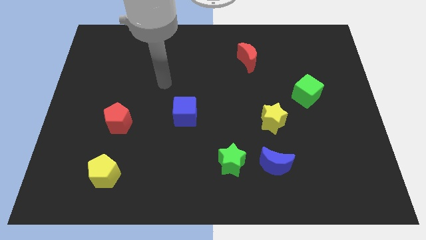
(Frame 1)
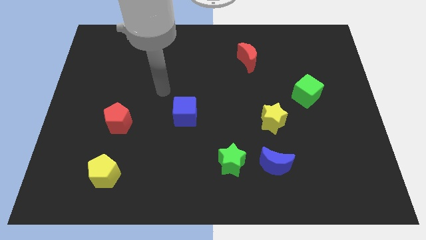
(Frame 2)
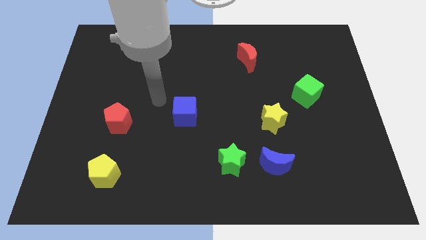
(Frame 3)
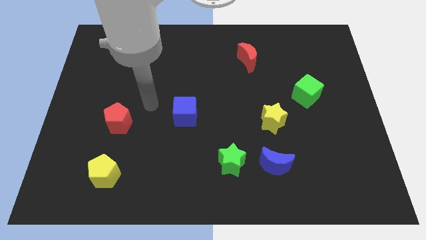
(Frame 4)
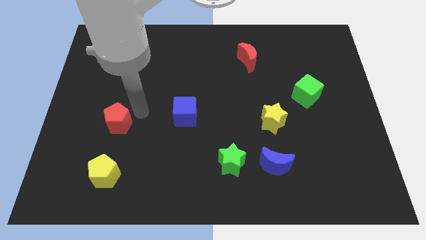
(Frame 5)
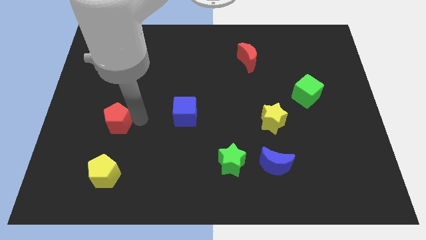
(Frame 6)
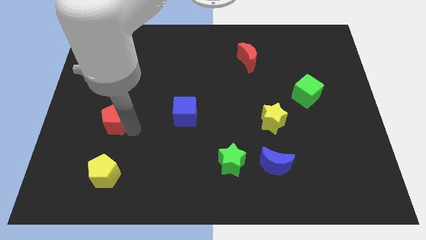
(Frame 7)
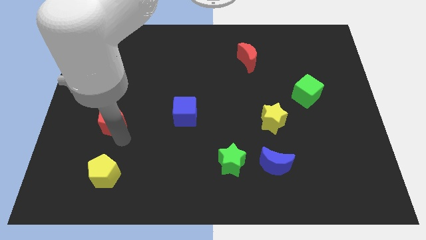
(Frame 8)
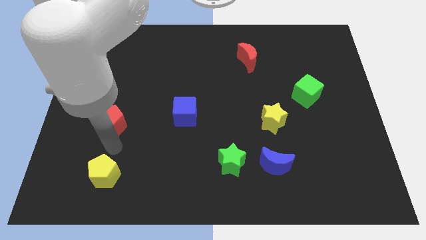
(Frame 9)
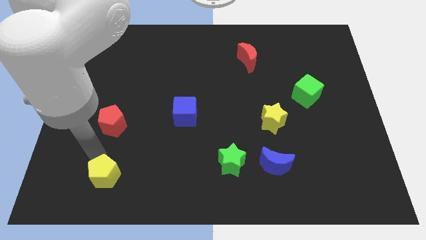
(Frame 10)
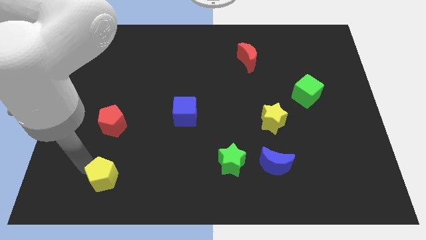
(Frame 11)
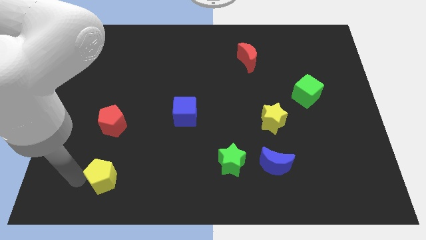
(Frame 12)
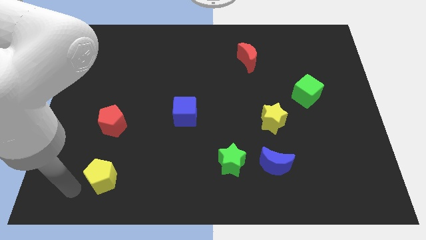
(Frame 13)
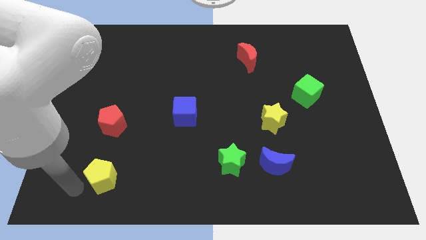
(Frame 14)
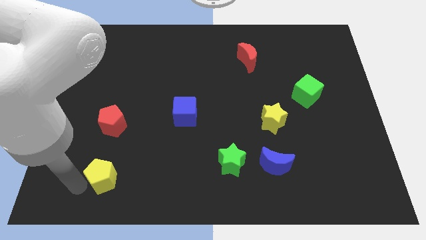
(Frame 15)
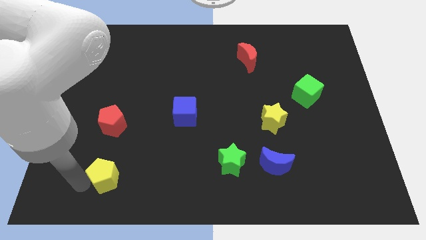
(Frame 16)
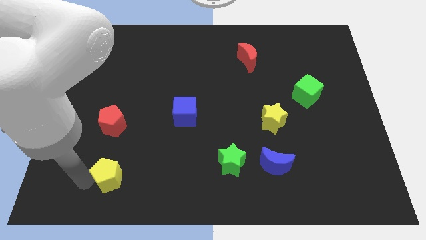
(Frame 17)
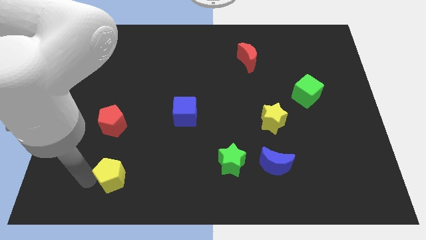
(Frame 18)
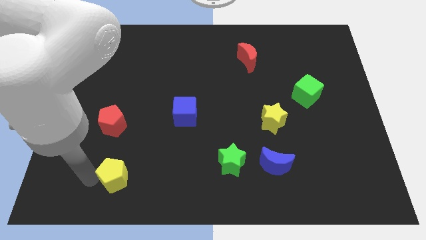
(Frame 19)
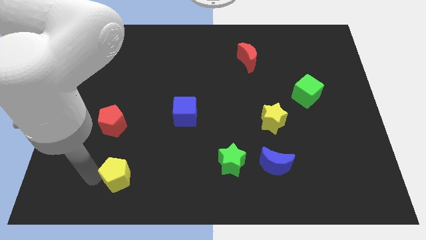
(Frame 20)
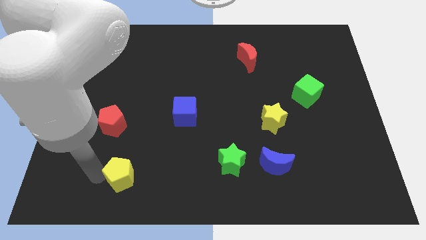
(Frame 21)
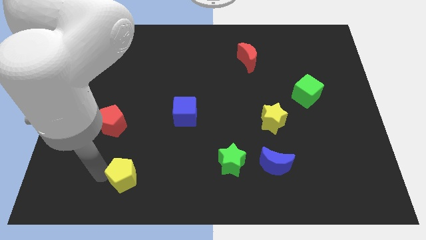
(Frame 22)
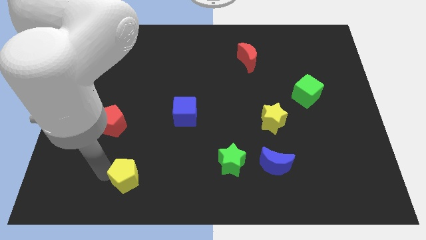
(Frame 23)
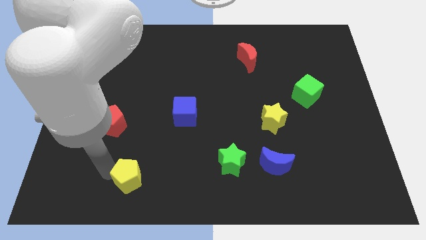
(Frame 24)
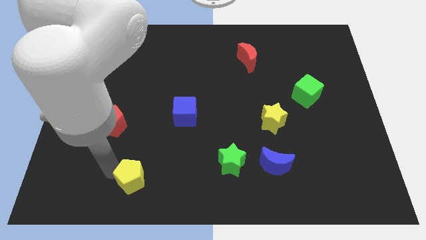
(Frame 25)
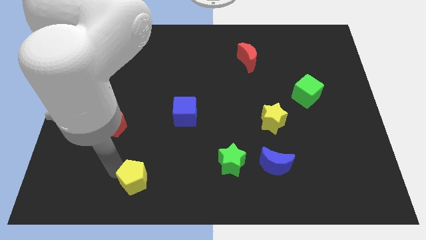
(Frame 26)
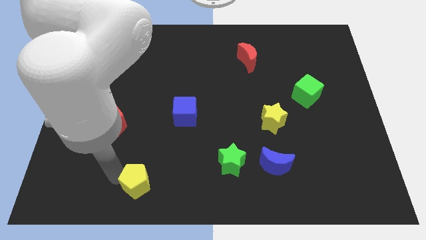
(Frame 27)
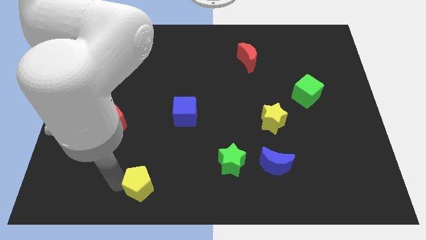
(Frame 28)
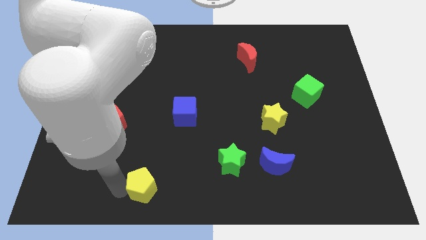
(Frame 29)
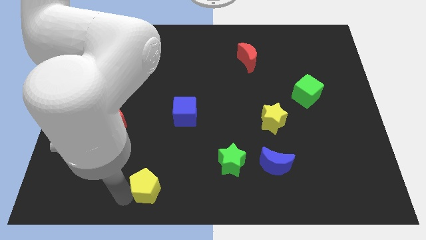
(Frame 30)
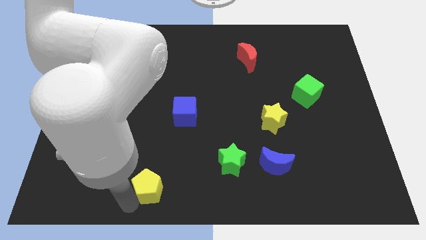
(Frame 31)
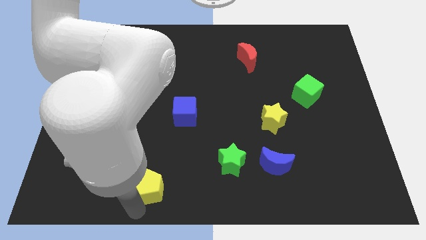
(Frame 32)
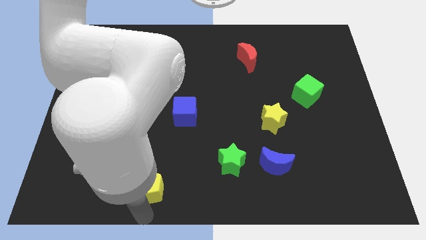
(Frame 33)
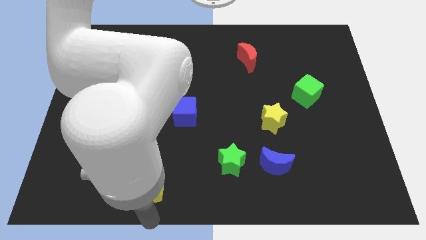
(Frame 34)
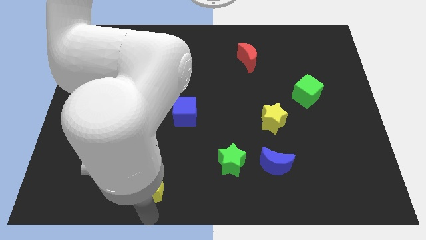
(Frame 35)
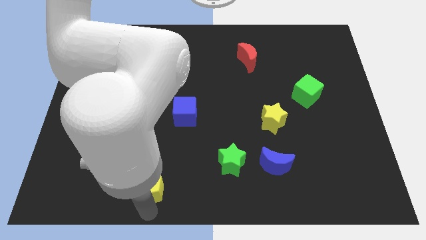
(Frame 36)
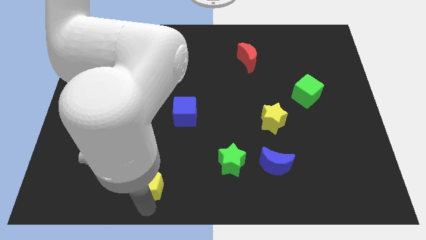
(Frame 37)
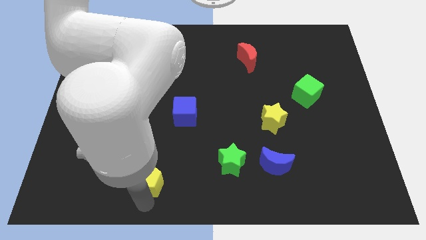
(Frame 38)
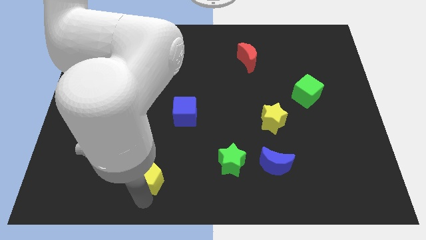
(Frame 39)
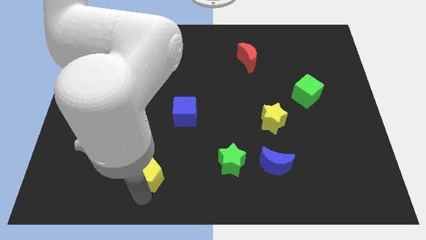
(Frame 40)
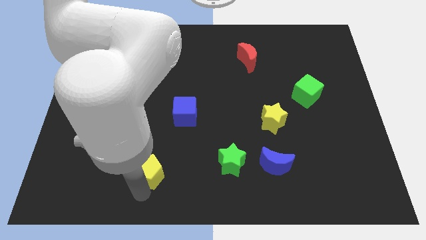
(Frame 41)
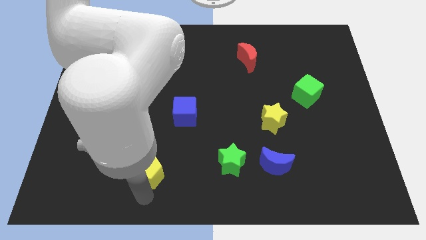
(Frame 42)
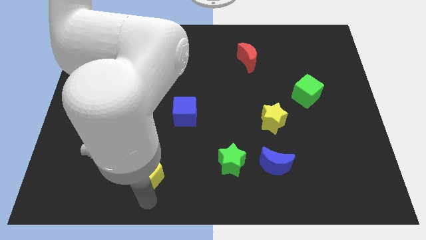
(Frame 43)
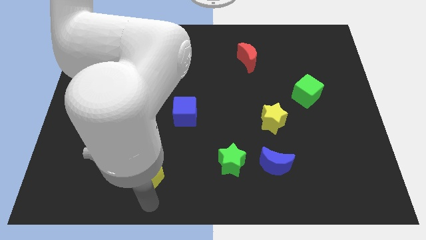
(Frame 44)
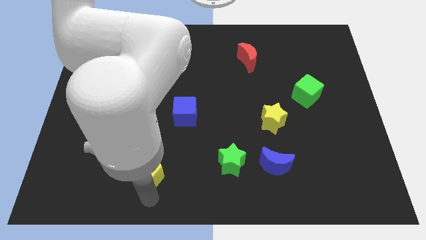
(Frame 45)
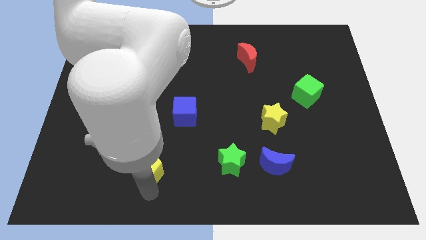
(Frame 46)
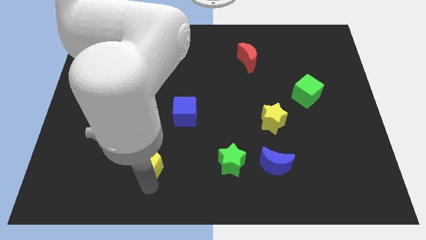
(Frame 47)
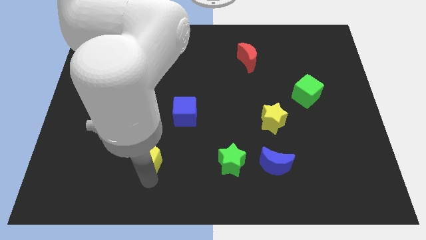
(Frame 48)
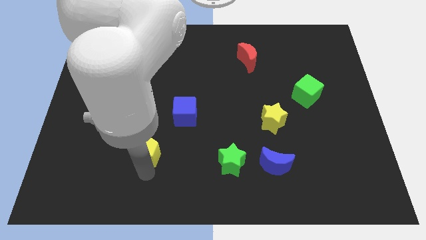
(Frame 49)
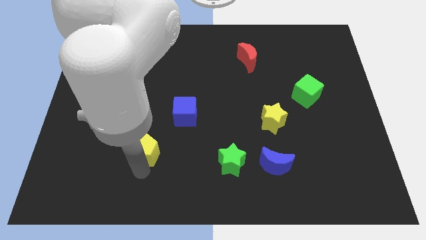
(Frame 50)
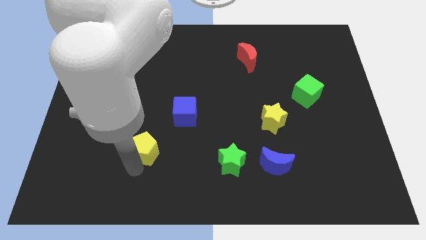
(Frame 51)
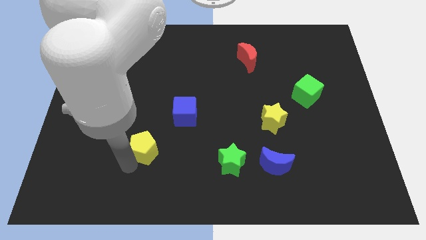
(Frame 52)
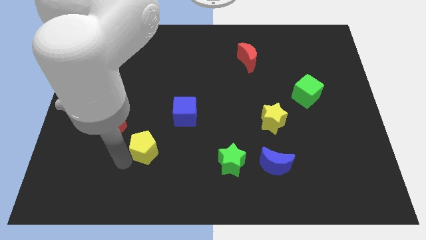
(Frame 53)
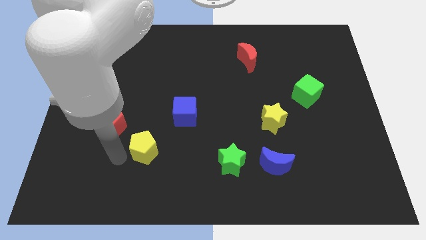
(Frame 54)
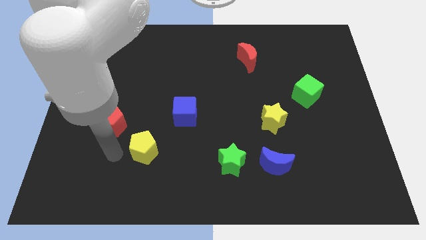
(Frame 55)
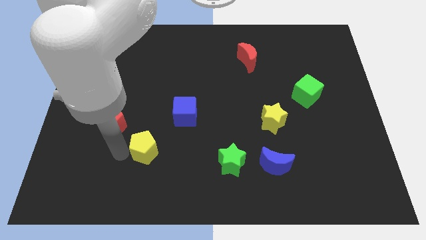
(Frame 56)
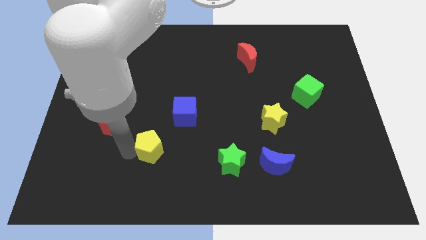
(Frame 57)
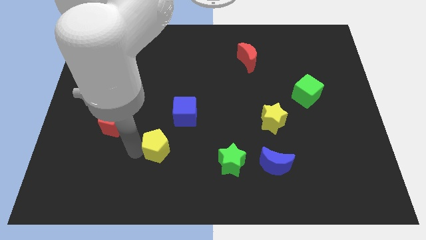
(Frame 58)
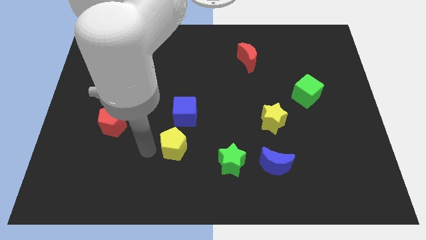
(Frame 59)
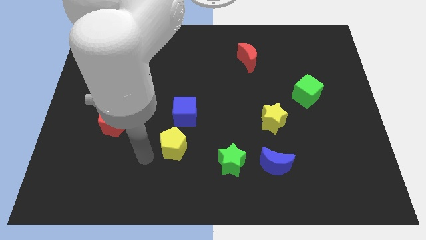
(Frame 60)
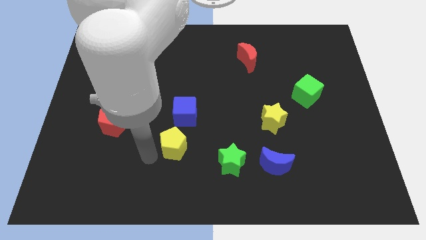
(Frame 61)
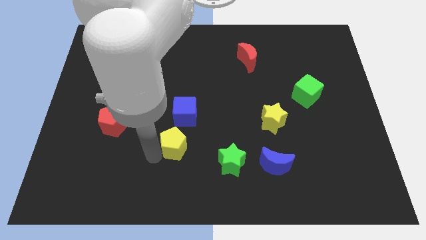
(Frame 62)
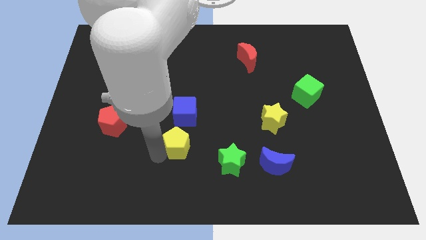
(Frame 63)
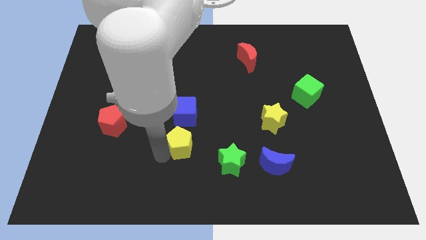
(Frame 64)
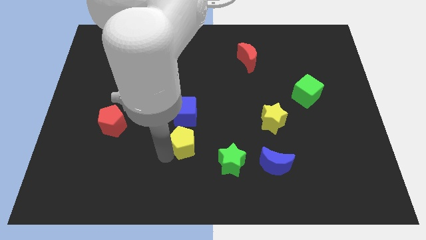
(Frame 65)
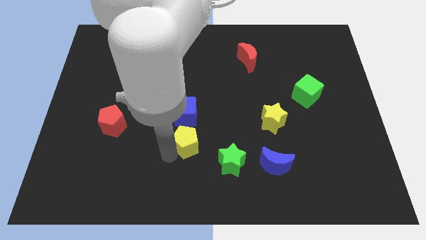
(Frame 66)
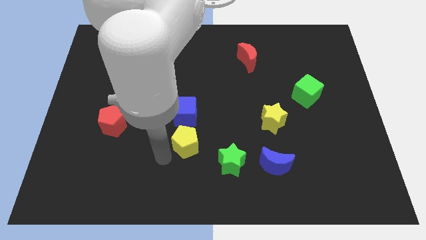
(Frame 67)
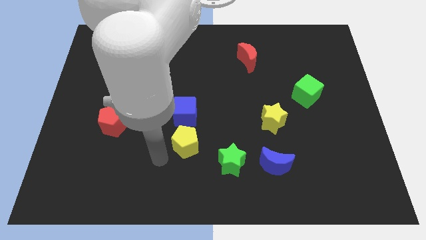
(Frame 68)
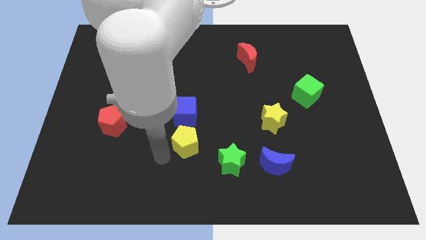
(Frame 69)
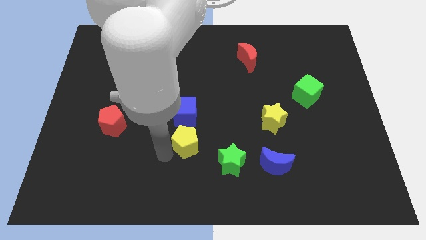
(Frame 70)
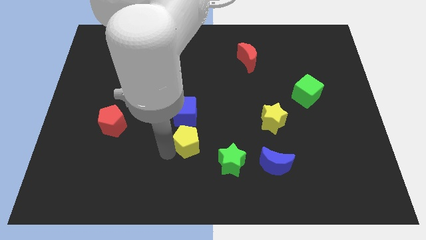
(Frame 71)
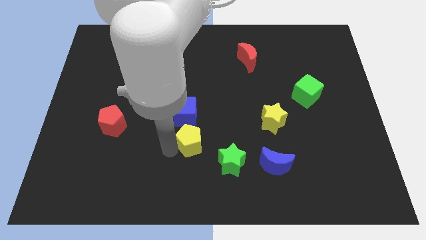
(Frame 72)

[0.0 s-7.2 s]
move the yellow pentagon to the bottom right side of the blue cube

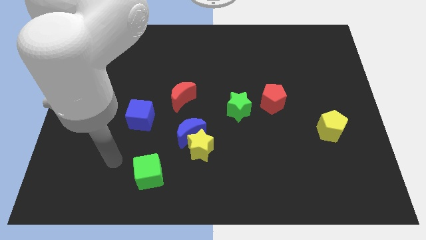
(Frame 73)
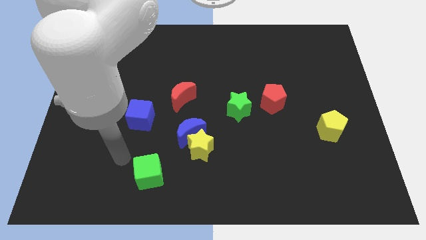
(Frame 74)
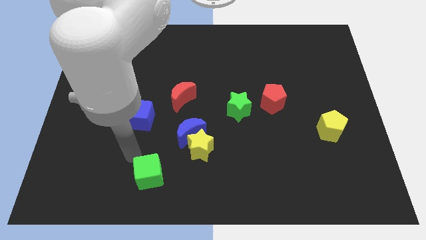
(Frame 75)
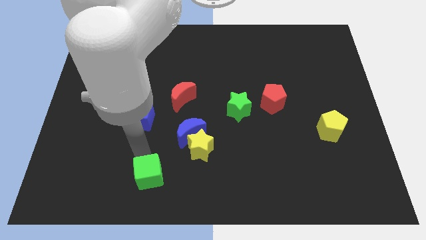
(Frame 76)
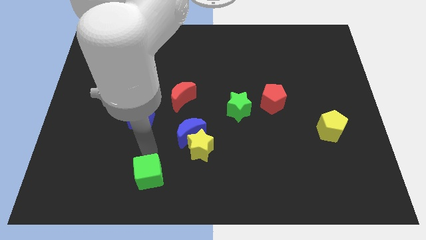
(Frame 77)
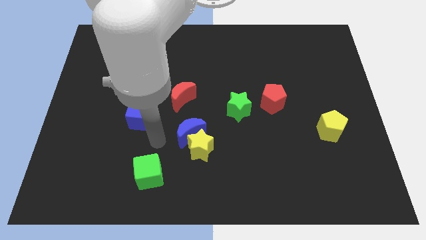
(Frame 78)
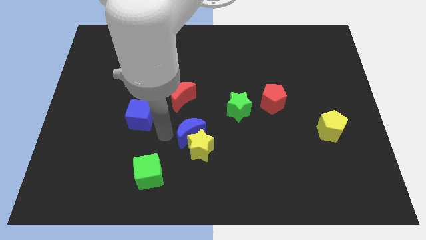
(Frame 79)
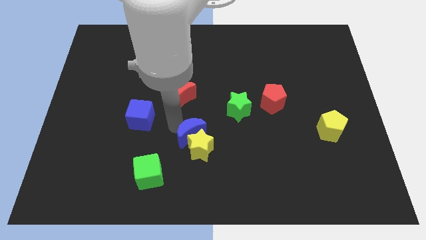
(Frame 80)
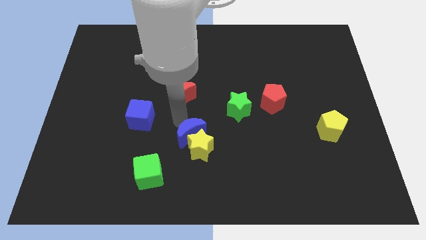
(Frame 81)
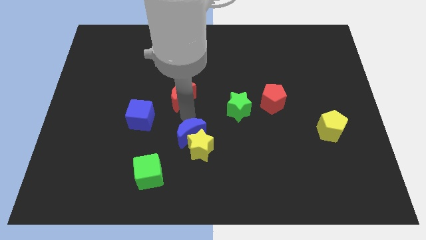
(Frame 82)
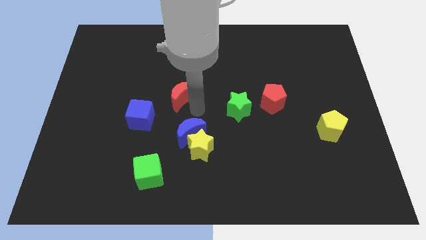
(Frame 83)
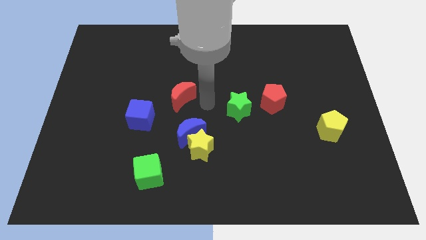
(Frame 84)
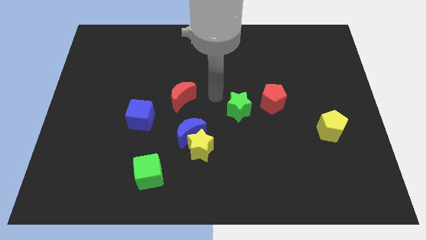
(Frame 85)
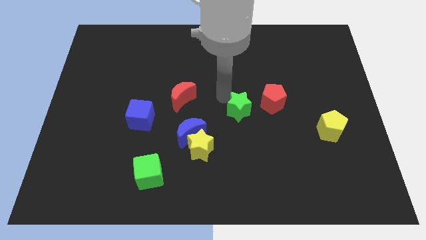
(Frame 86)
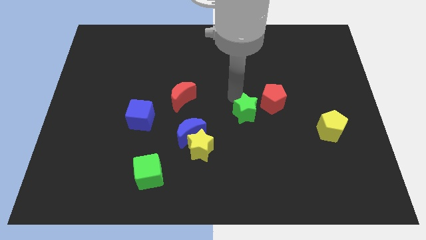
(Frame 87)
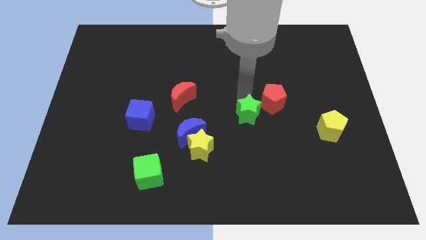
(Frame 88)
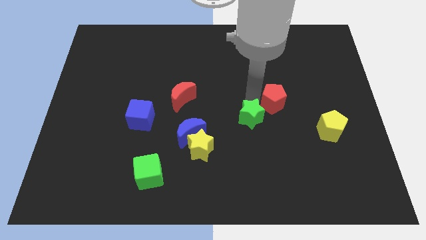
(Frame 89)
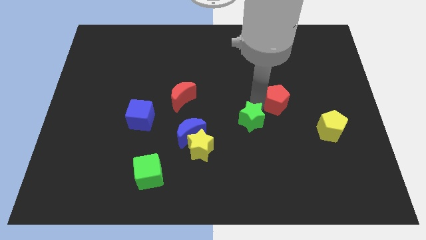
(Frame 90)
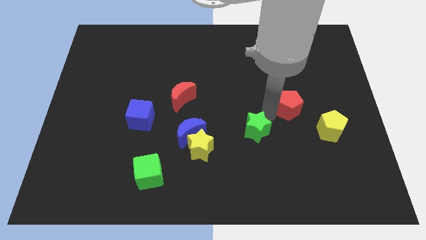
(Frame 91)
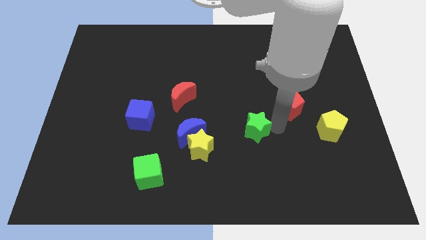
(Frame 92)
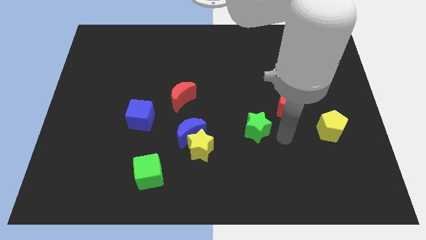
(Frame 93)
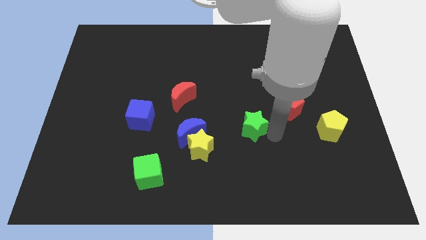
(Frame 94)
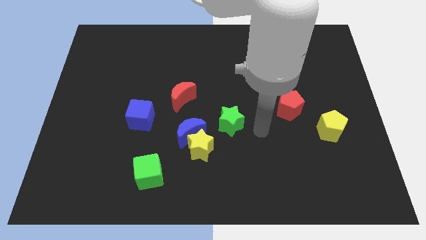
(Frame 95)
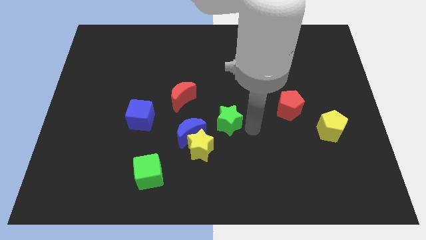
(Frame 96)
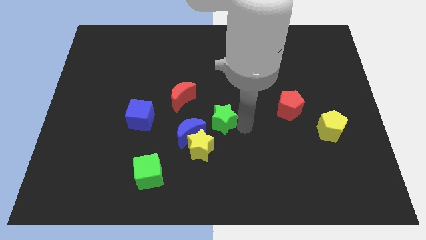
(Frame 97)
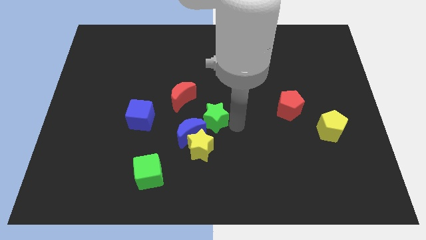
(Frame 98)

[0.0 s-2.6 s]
move the green star above the yellow star
